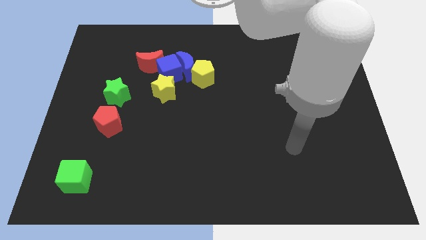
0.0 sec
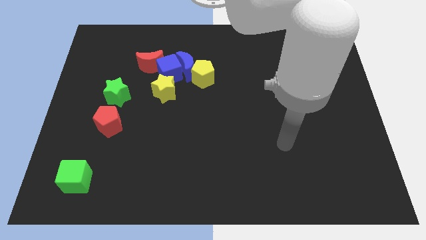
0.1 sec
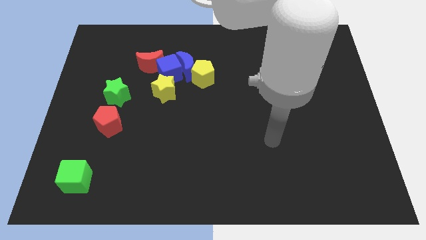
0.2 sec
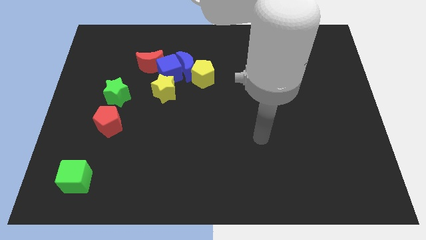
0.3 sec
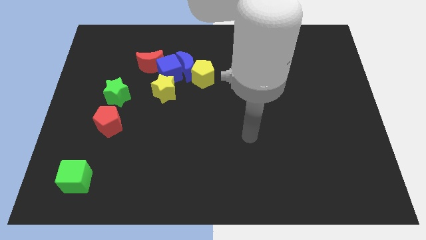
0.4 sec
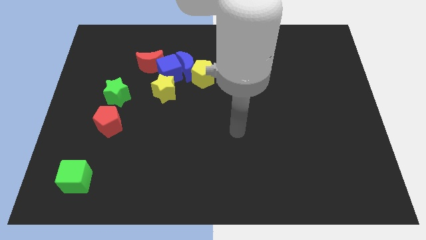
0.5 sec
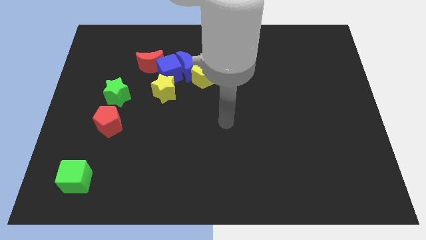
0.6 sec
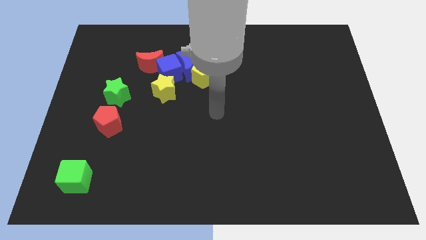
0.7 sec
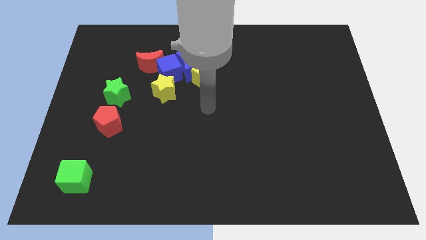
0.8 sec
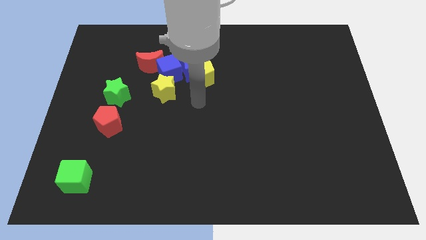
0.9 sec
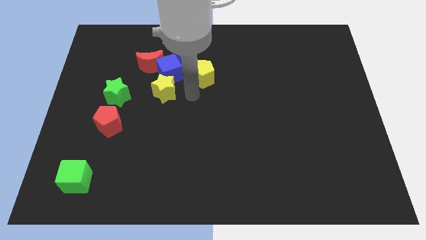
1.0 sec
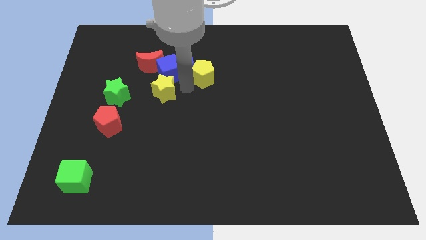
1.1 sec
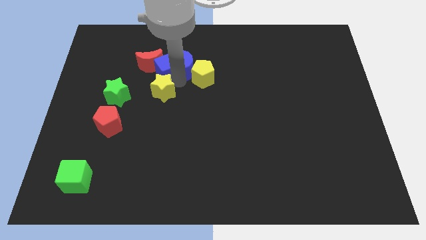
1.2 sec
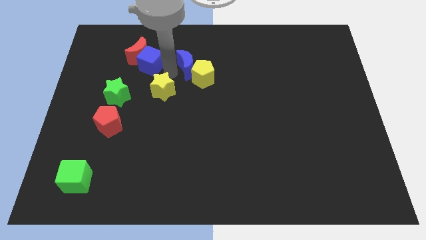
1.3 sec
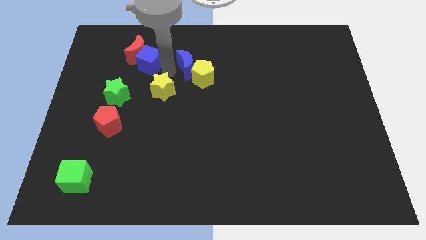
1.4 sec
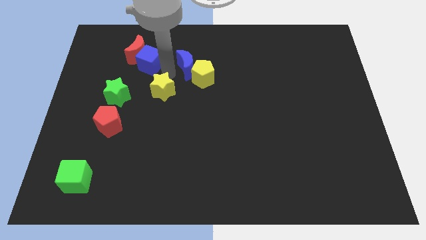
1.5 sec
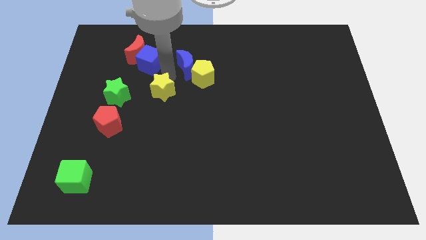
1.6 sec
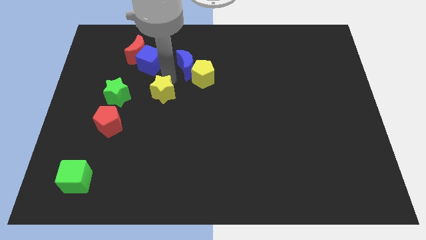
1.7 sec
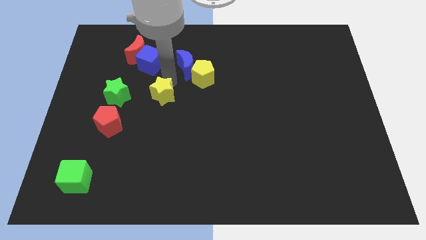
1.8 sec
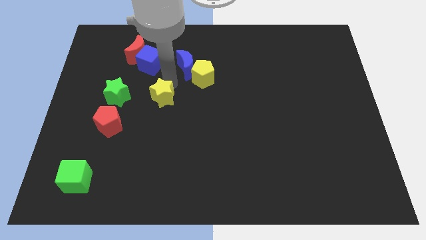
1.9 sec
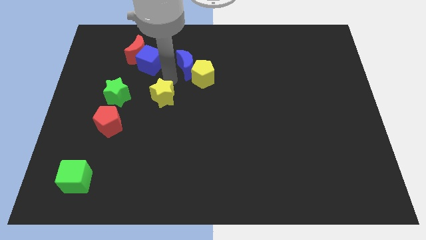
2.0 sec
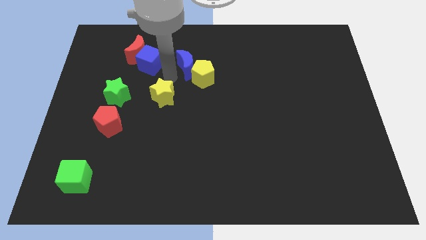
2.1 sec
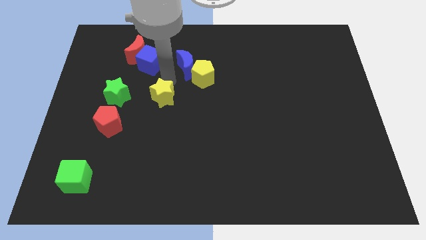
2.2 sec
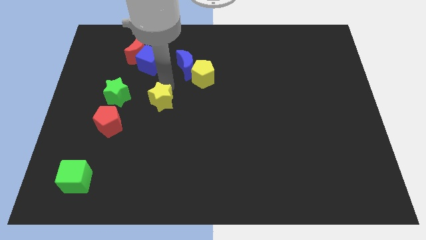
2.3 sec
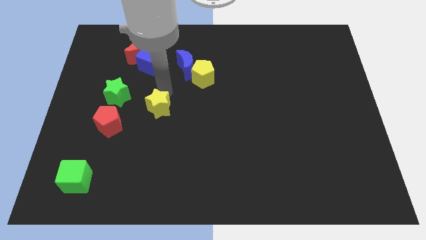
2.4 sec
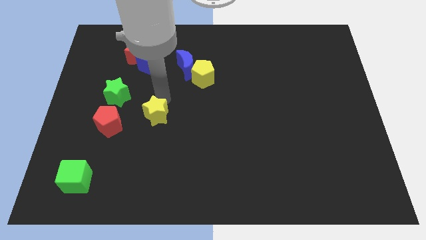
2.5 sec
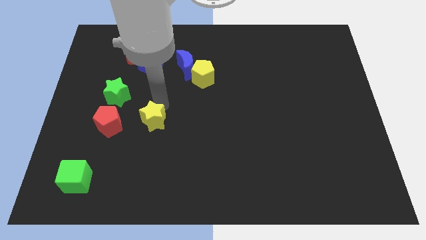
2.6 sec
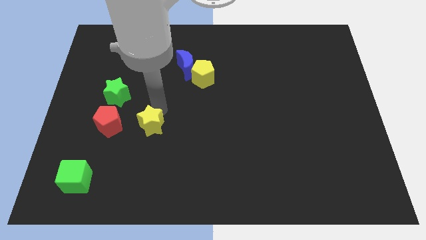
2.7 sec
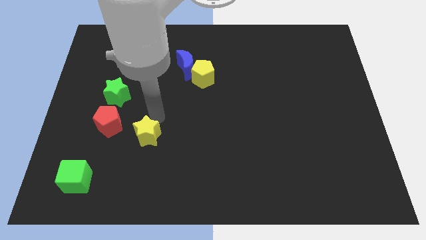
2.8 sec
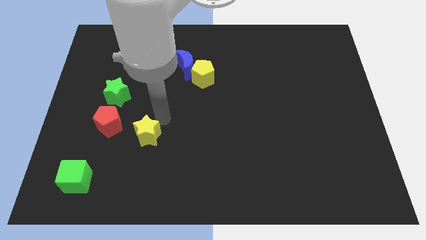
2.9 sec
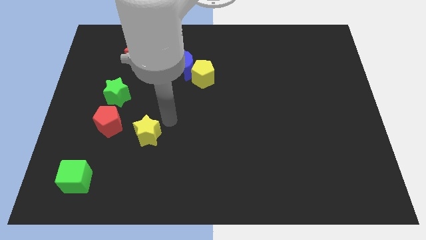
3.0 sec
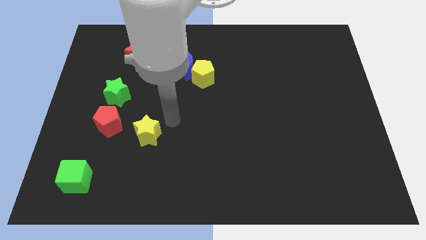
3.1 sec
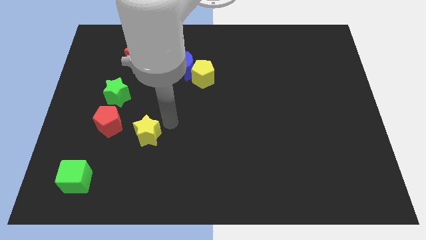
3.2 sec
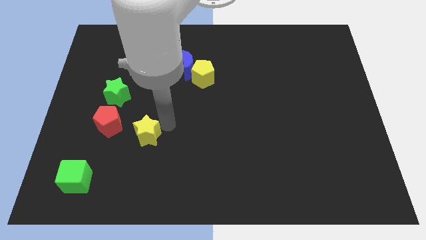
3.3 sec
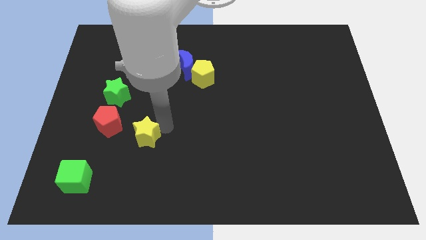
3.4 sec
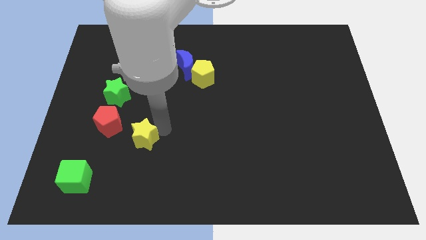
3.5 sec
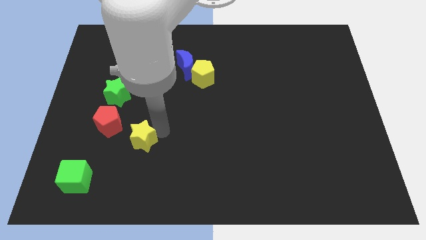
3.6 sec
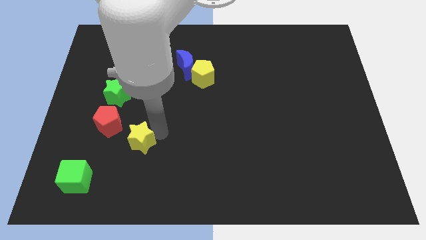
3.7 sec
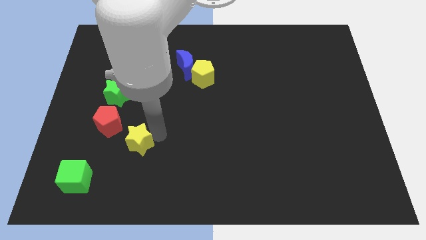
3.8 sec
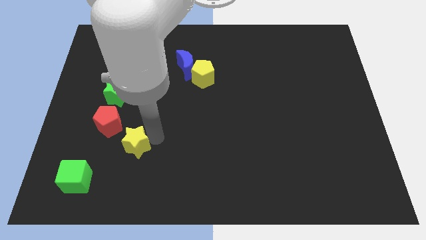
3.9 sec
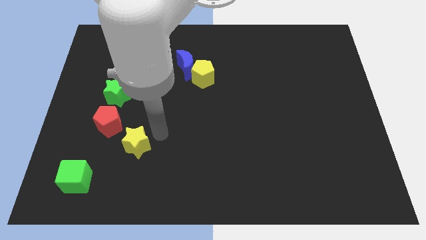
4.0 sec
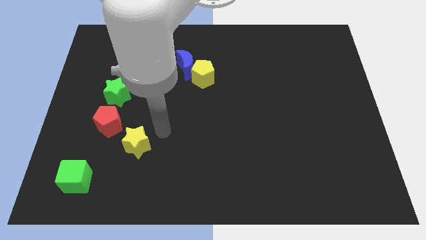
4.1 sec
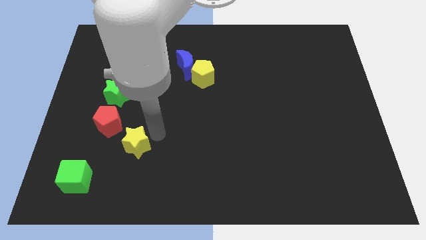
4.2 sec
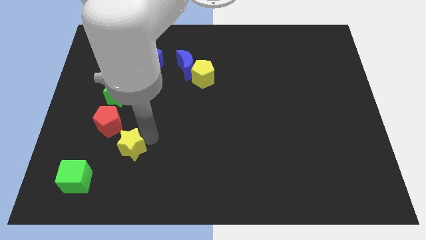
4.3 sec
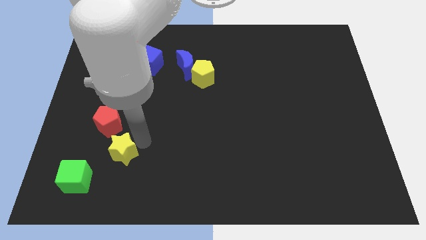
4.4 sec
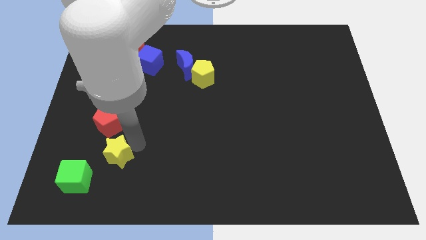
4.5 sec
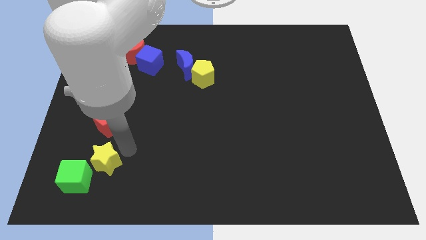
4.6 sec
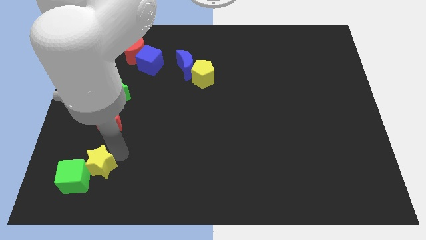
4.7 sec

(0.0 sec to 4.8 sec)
slide the yellow star next to the green cube

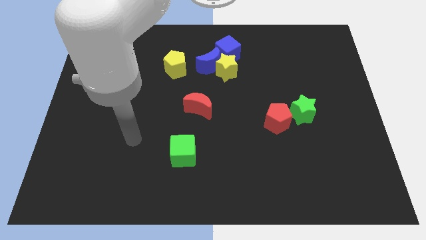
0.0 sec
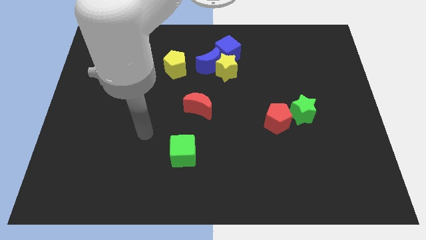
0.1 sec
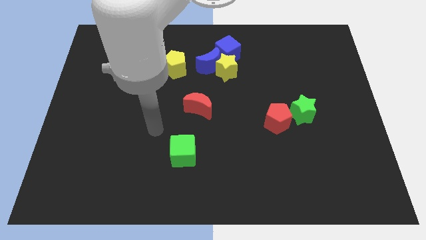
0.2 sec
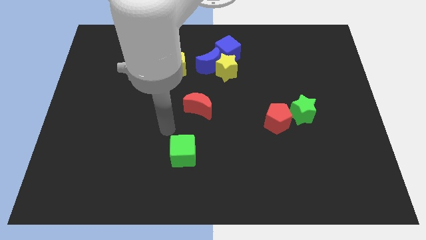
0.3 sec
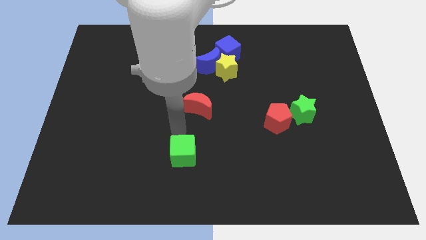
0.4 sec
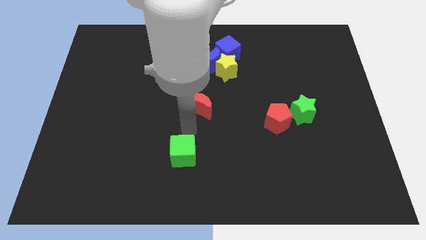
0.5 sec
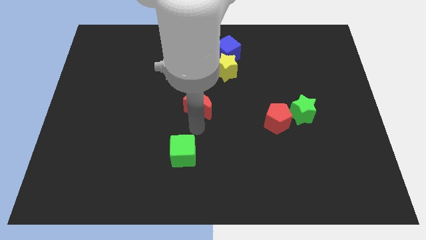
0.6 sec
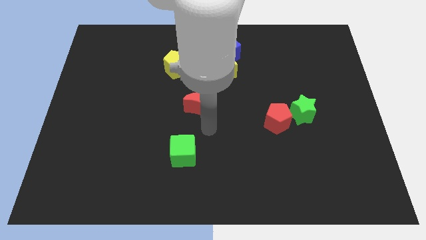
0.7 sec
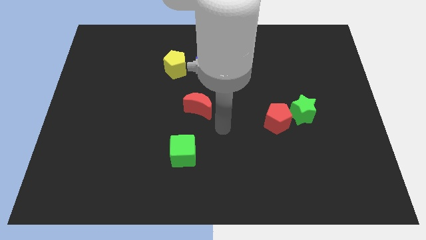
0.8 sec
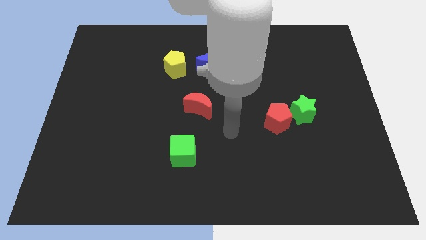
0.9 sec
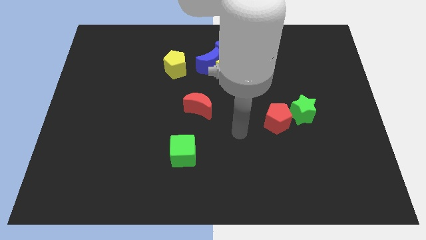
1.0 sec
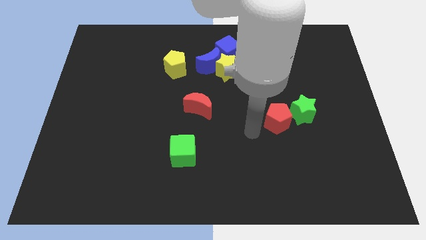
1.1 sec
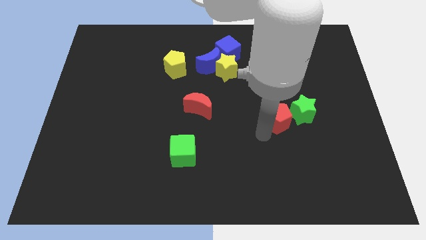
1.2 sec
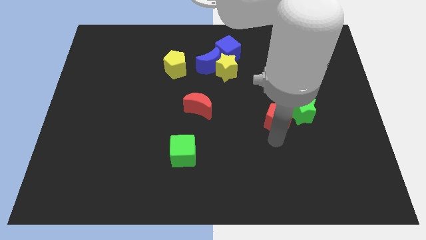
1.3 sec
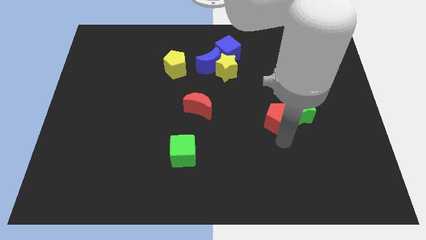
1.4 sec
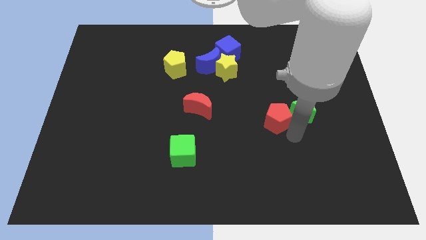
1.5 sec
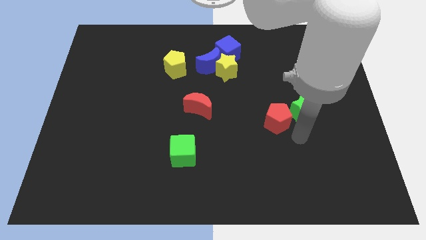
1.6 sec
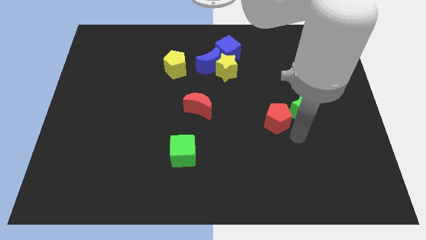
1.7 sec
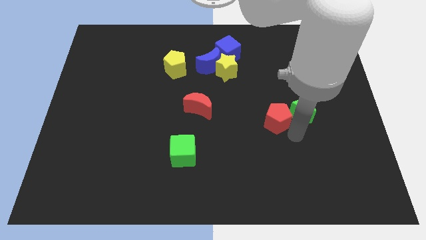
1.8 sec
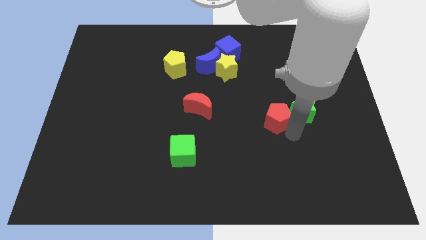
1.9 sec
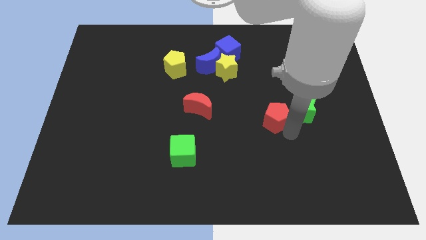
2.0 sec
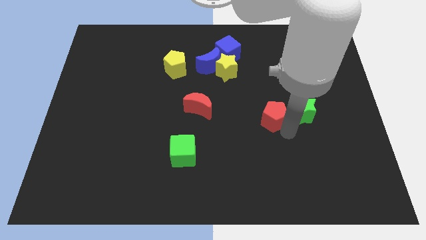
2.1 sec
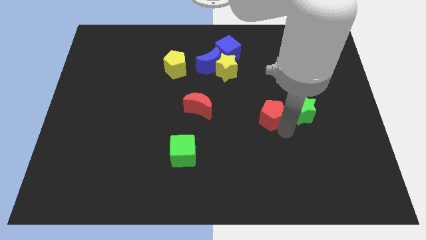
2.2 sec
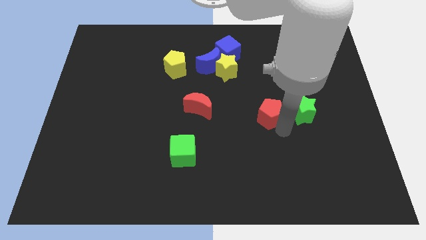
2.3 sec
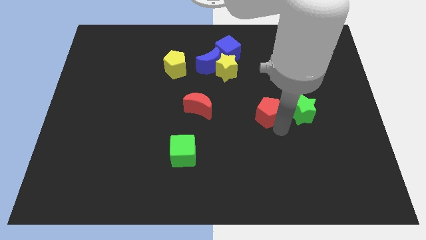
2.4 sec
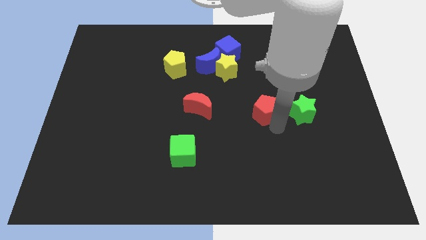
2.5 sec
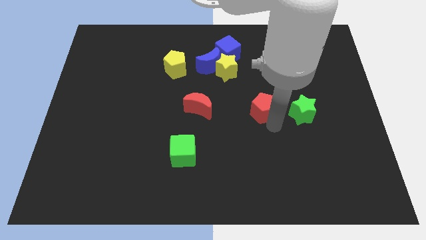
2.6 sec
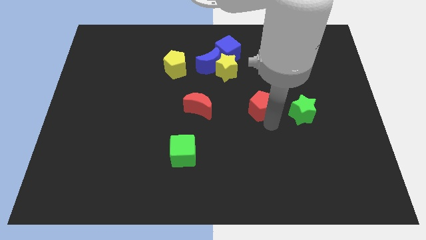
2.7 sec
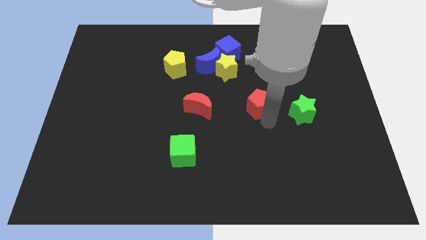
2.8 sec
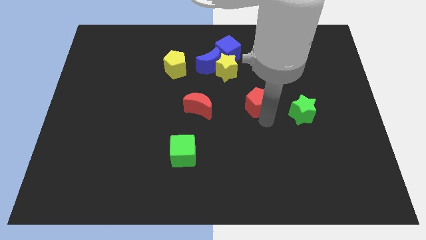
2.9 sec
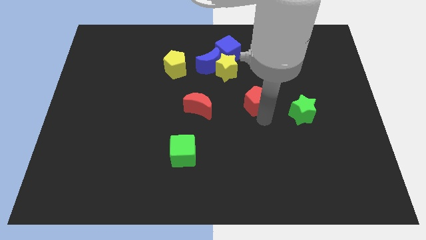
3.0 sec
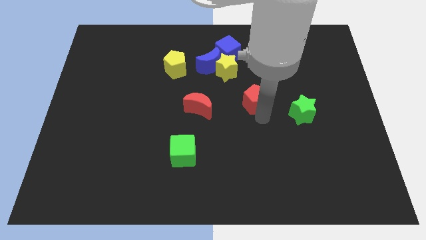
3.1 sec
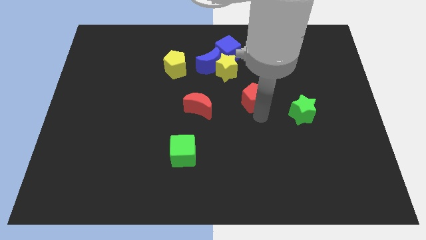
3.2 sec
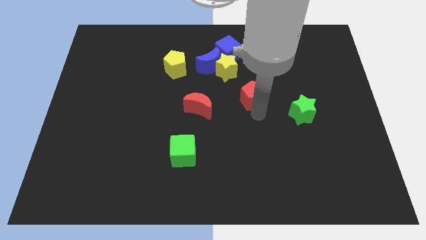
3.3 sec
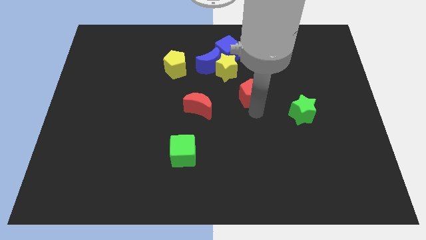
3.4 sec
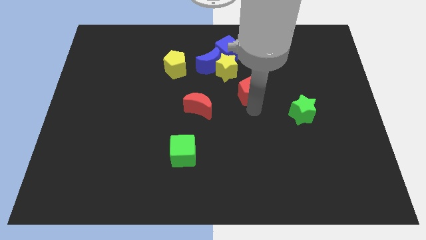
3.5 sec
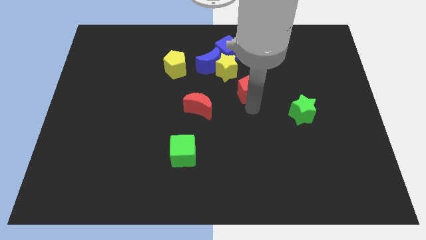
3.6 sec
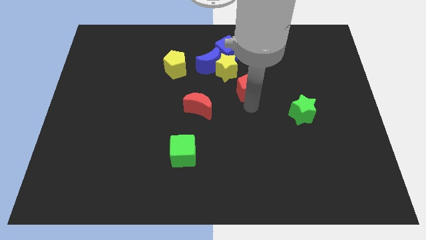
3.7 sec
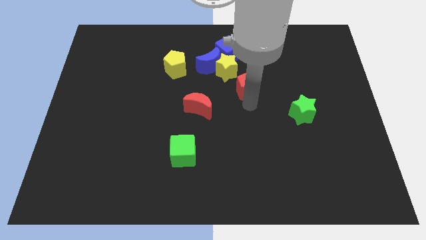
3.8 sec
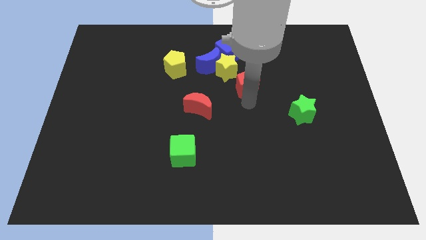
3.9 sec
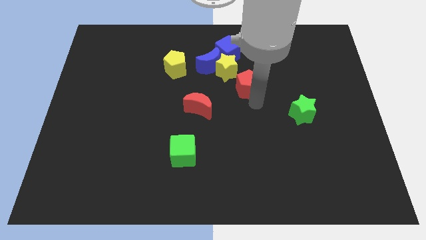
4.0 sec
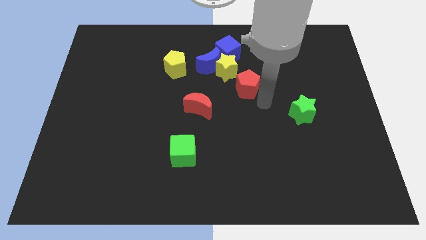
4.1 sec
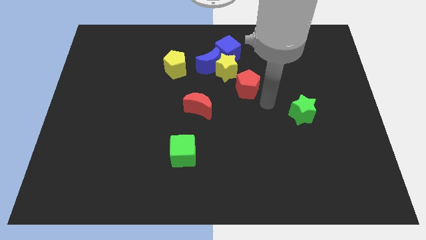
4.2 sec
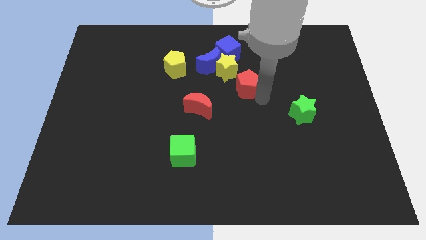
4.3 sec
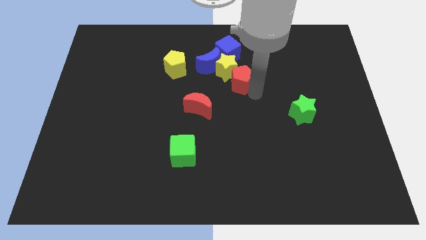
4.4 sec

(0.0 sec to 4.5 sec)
put the red pentagon next to the yellow star
